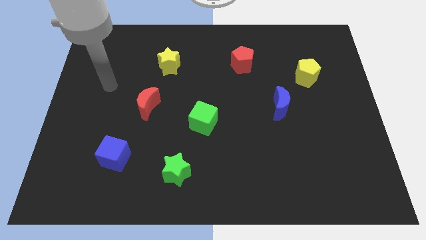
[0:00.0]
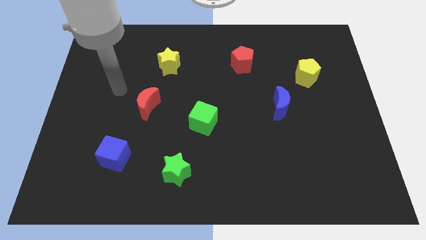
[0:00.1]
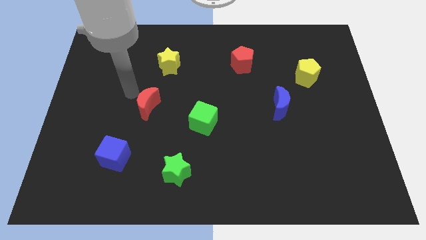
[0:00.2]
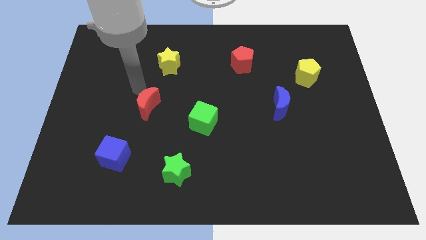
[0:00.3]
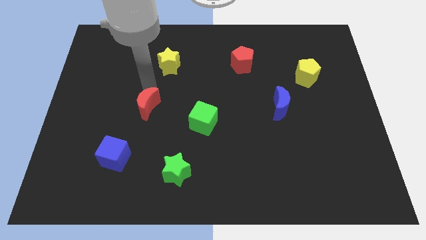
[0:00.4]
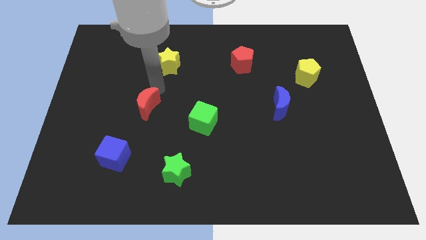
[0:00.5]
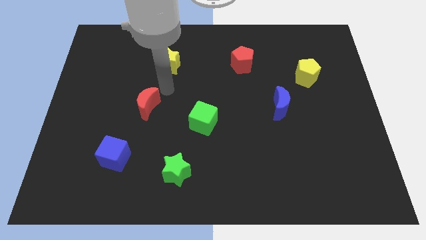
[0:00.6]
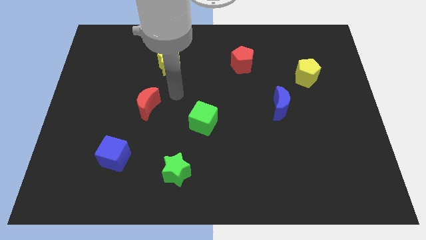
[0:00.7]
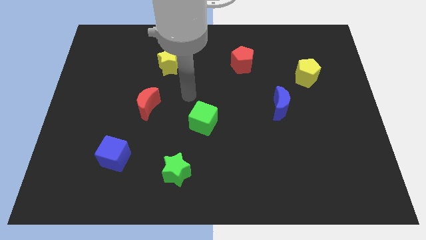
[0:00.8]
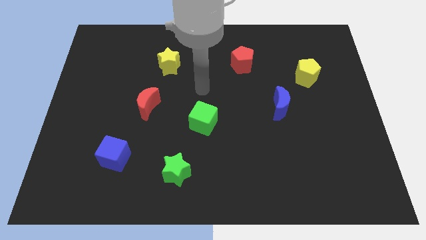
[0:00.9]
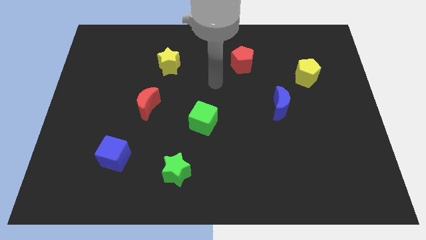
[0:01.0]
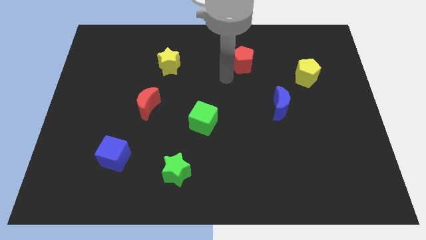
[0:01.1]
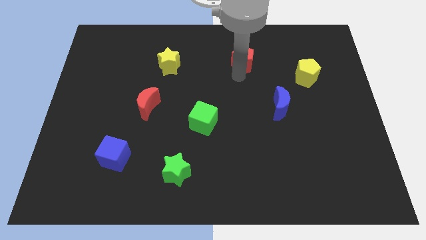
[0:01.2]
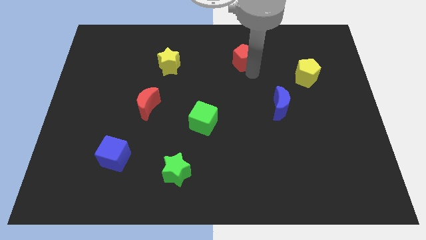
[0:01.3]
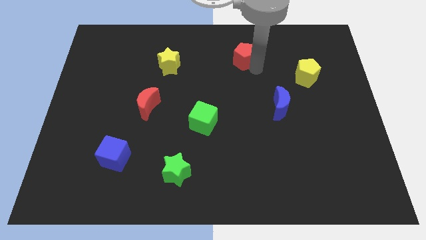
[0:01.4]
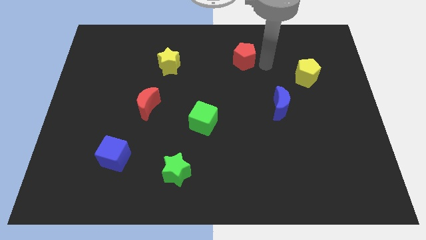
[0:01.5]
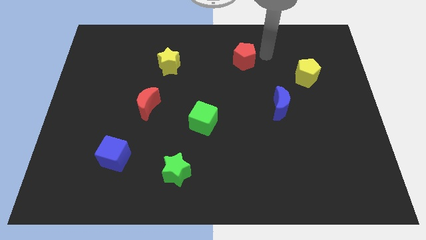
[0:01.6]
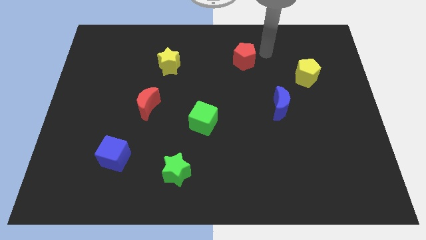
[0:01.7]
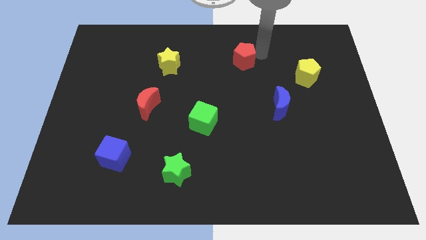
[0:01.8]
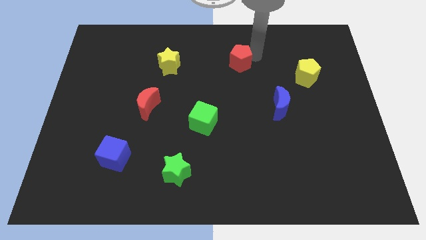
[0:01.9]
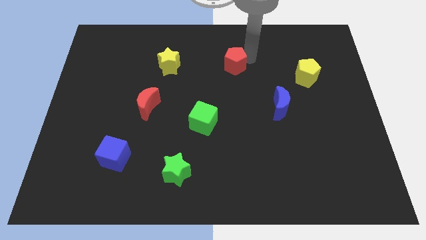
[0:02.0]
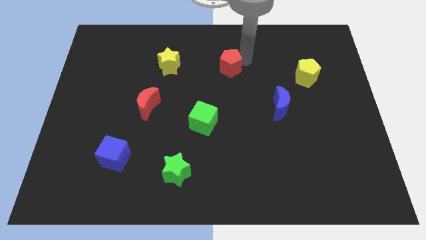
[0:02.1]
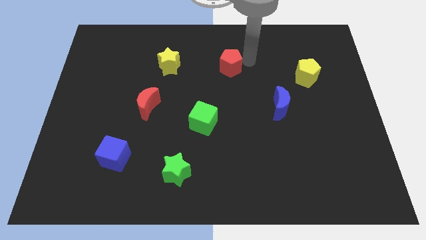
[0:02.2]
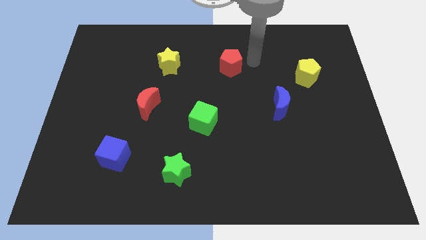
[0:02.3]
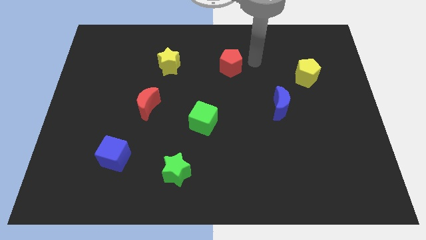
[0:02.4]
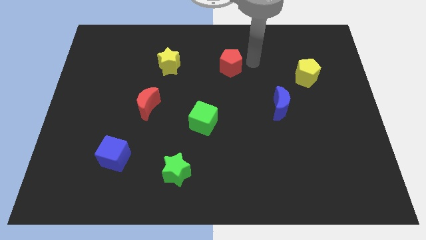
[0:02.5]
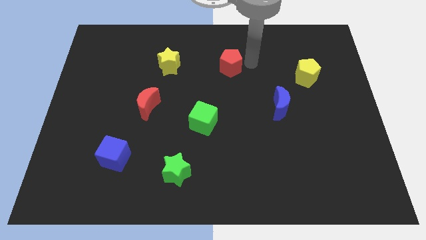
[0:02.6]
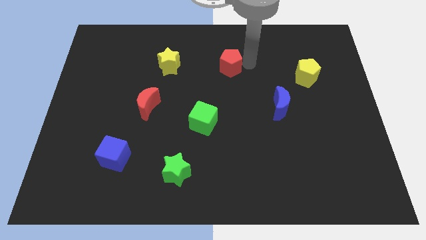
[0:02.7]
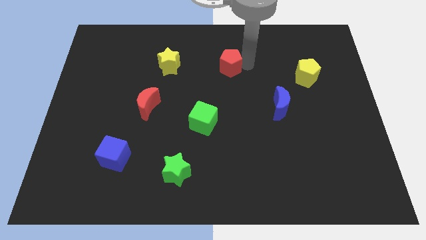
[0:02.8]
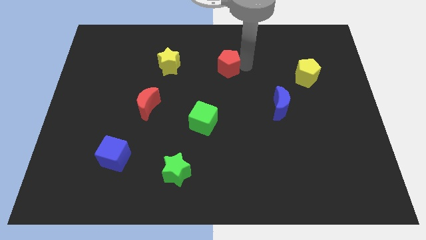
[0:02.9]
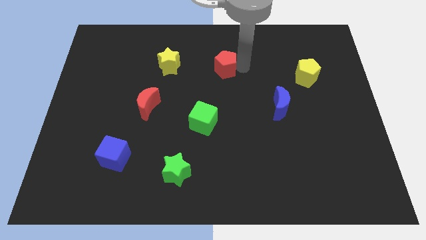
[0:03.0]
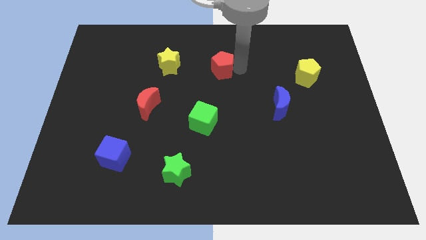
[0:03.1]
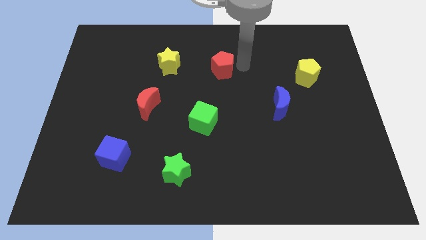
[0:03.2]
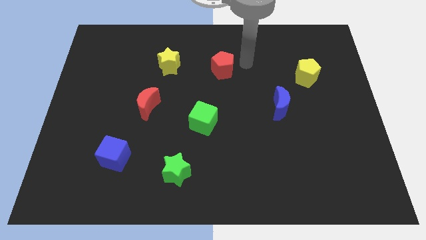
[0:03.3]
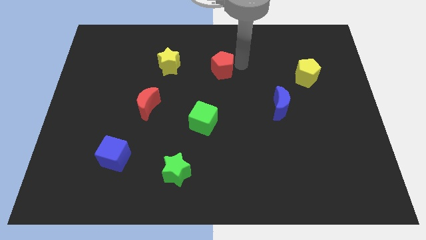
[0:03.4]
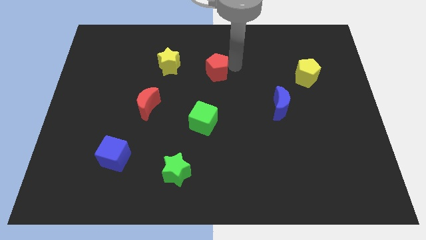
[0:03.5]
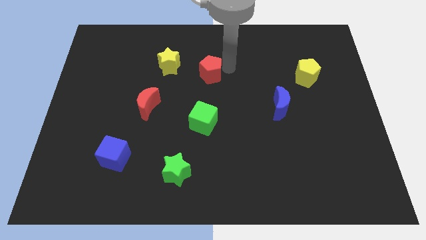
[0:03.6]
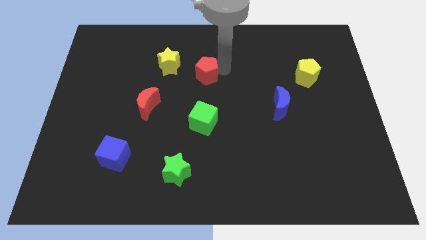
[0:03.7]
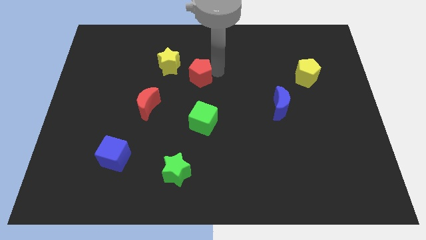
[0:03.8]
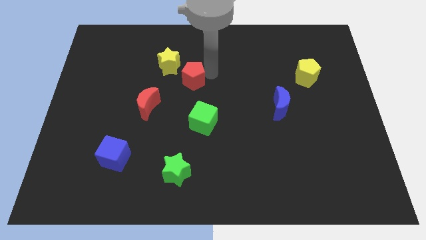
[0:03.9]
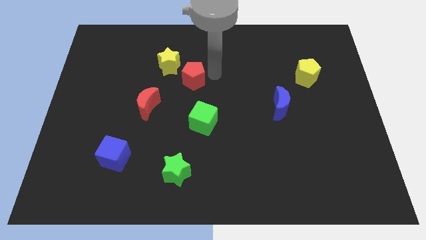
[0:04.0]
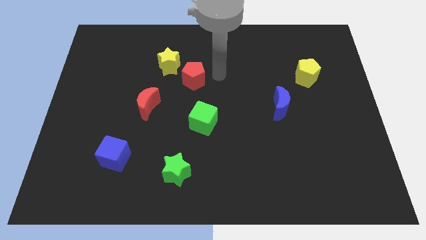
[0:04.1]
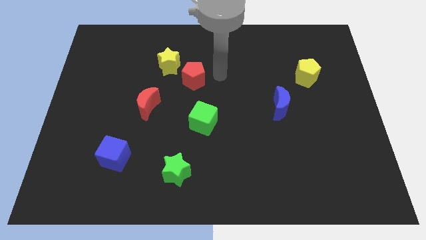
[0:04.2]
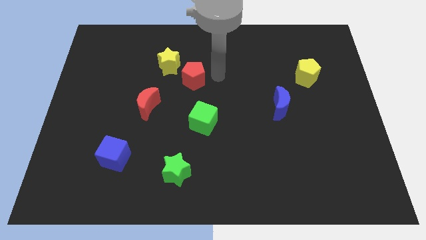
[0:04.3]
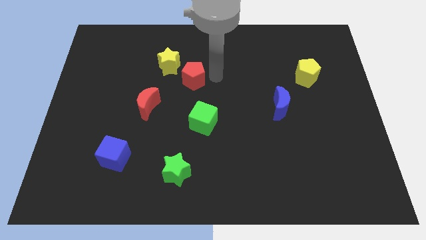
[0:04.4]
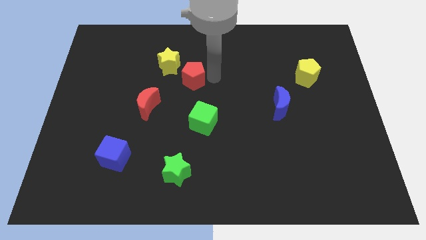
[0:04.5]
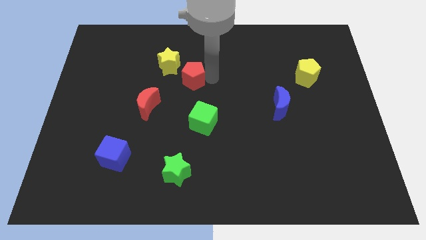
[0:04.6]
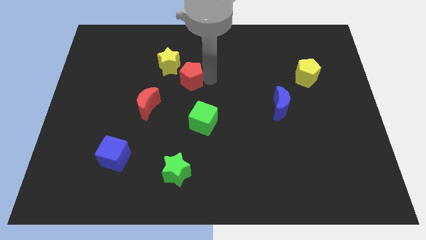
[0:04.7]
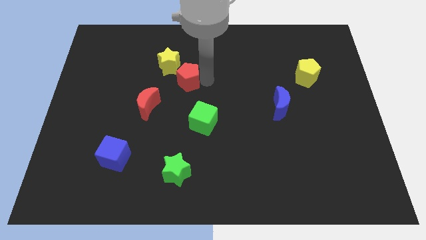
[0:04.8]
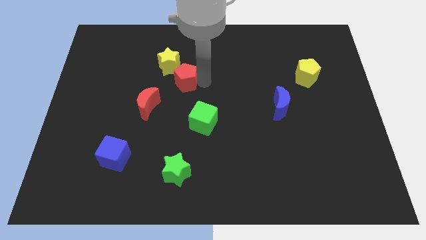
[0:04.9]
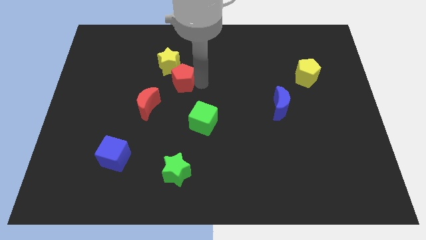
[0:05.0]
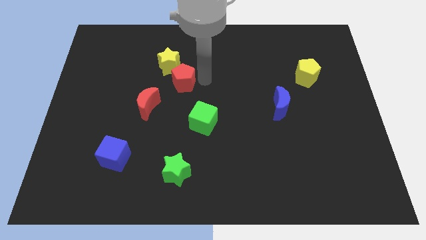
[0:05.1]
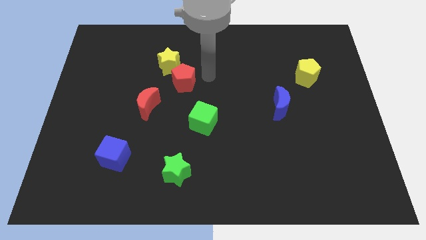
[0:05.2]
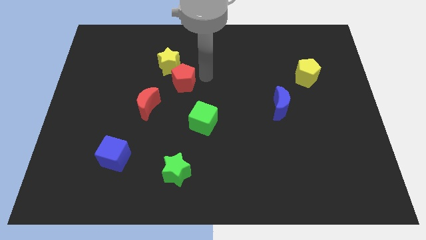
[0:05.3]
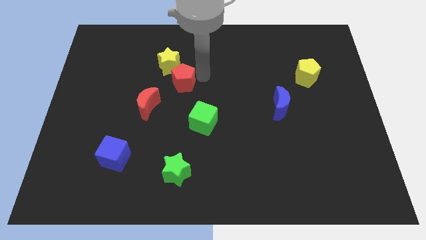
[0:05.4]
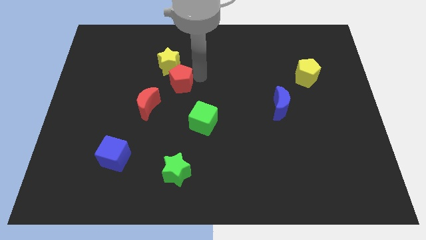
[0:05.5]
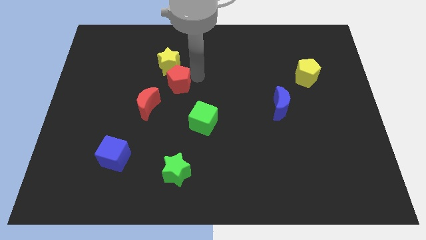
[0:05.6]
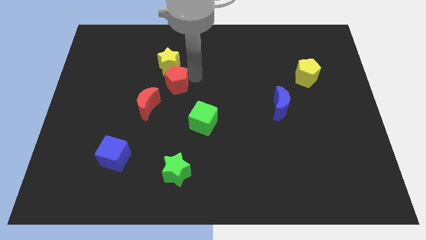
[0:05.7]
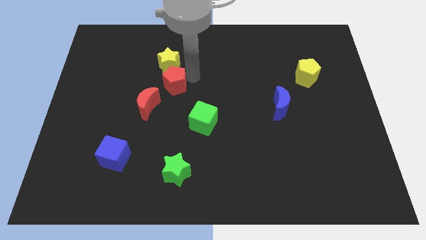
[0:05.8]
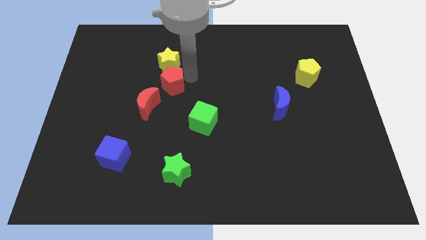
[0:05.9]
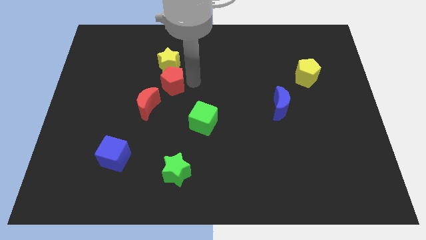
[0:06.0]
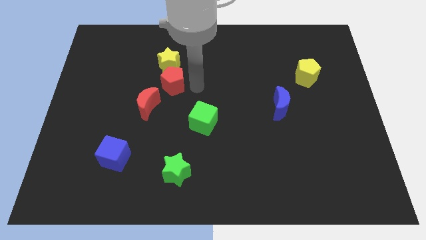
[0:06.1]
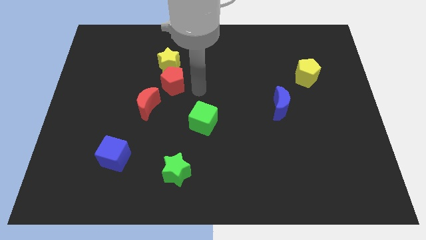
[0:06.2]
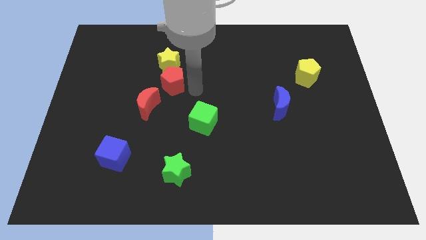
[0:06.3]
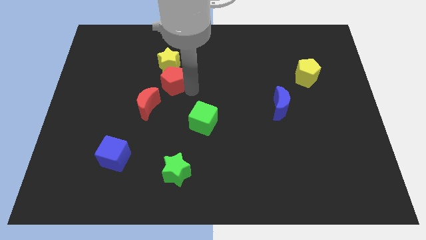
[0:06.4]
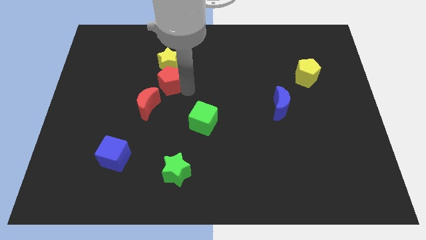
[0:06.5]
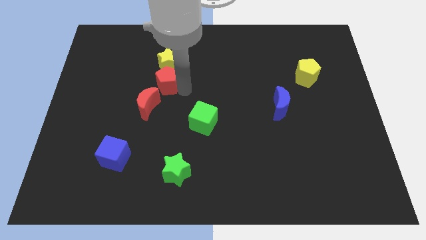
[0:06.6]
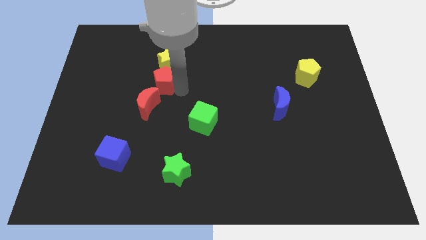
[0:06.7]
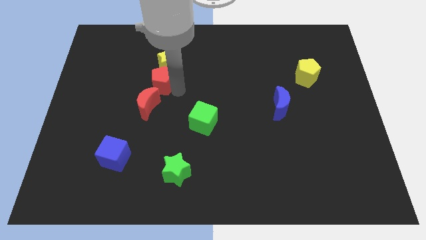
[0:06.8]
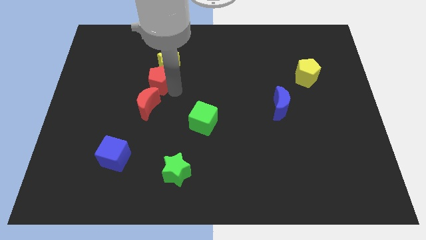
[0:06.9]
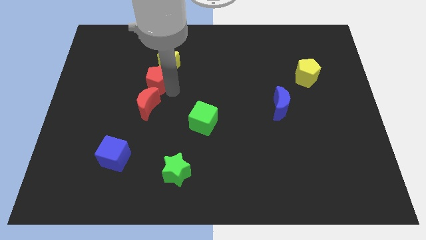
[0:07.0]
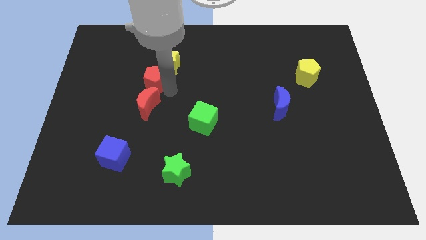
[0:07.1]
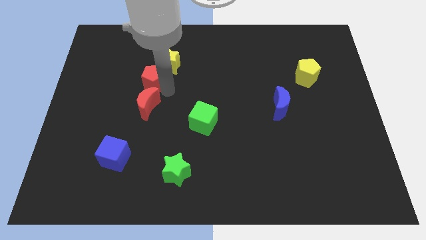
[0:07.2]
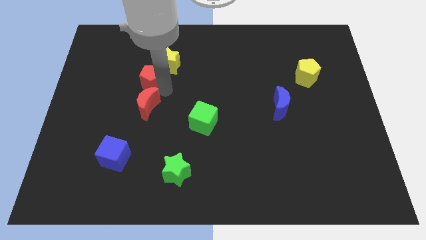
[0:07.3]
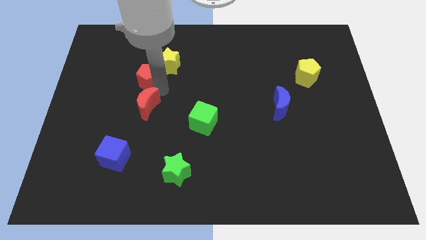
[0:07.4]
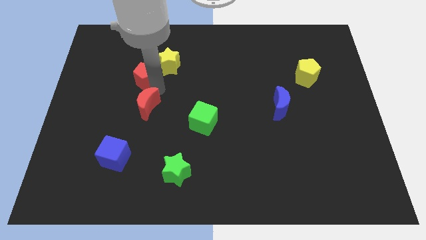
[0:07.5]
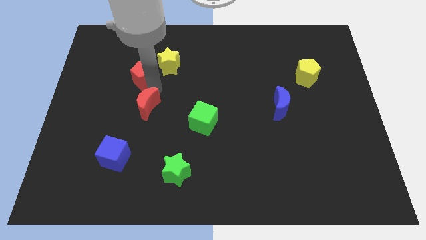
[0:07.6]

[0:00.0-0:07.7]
put the red pentagon to the left of the yellow star
